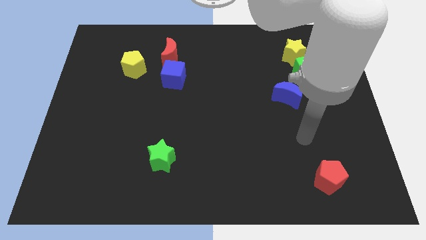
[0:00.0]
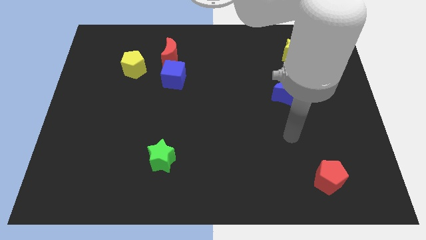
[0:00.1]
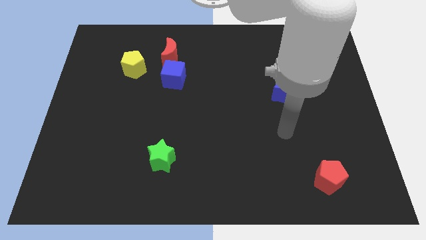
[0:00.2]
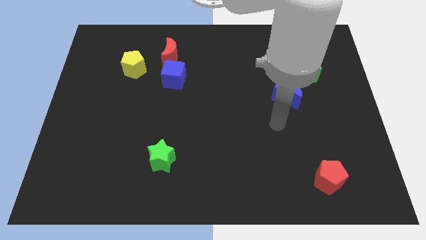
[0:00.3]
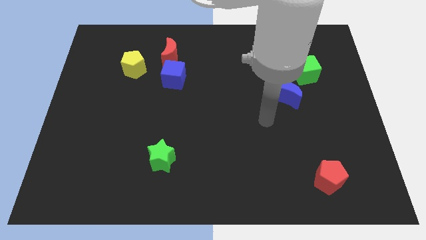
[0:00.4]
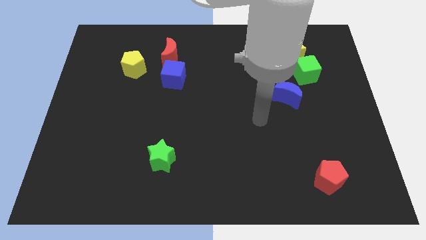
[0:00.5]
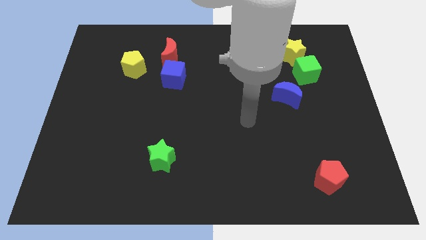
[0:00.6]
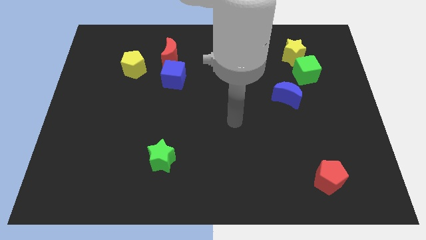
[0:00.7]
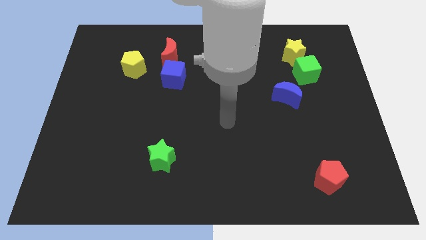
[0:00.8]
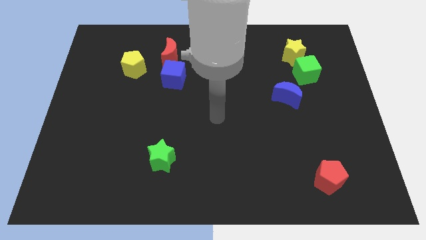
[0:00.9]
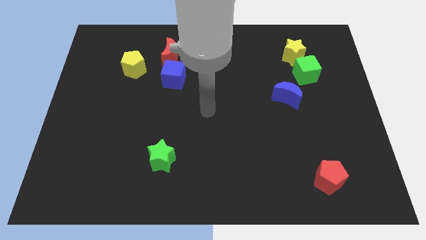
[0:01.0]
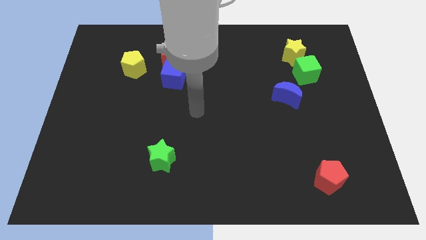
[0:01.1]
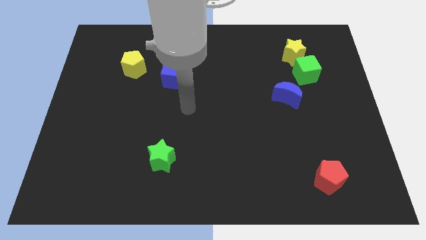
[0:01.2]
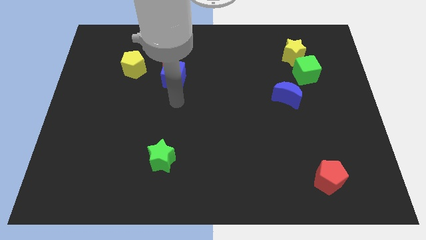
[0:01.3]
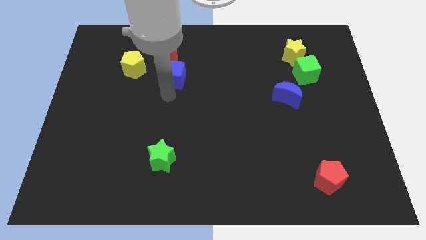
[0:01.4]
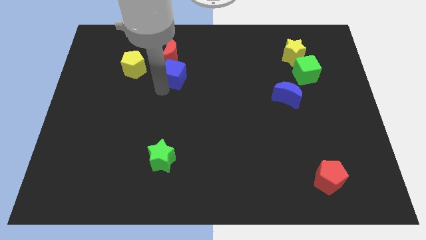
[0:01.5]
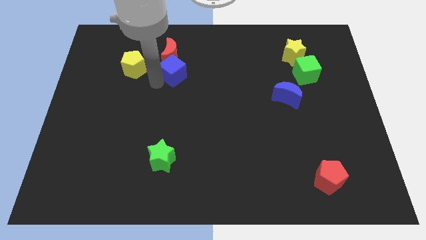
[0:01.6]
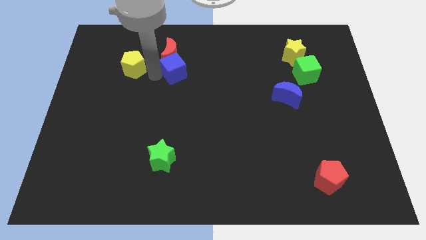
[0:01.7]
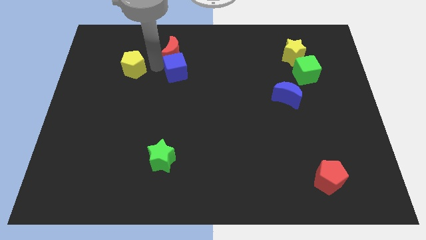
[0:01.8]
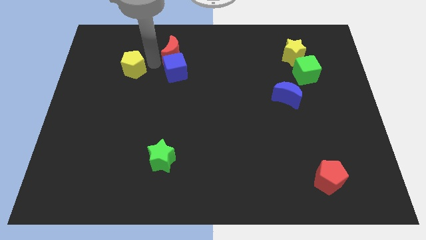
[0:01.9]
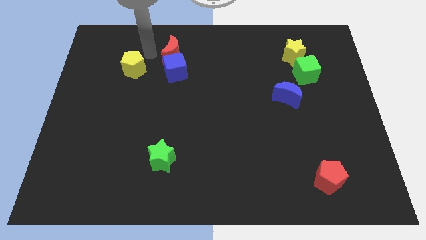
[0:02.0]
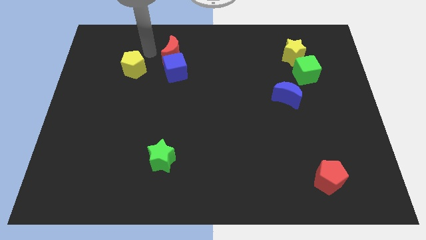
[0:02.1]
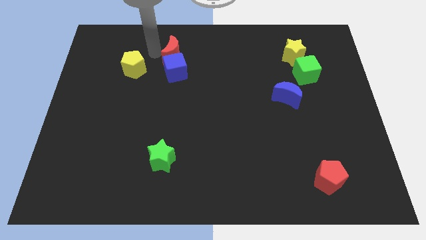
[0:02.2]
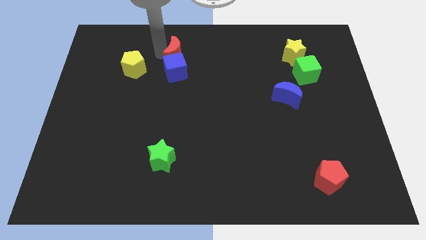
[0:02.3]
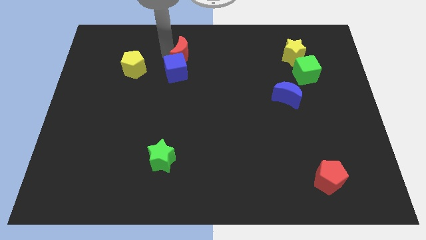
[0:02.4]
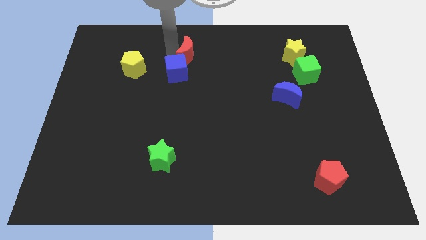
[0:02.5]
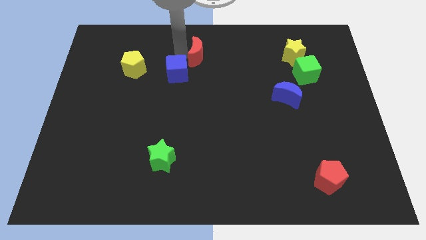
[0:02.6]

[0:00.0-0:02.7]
move the red moon to the right slightly

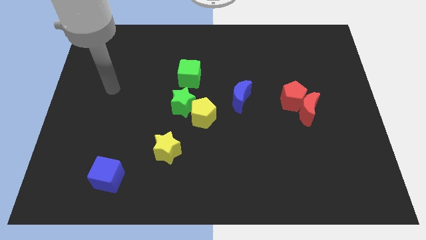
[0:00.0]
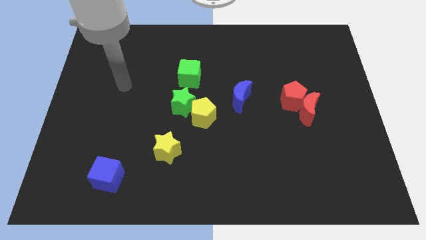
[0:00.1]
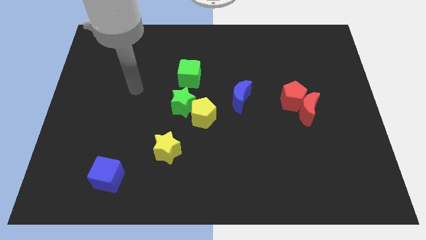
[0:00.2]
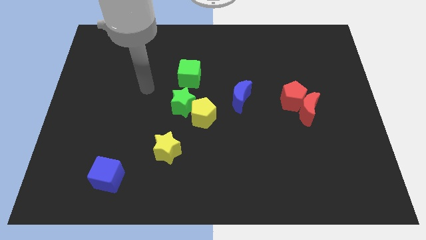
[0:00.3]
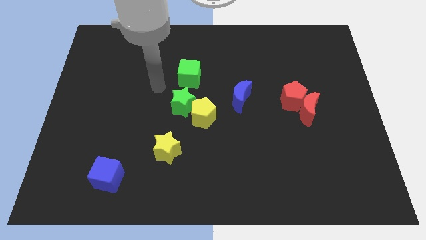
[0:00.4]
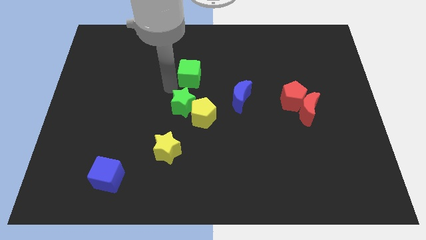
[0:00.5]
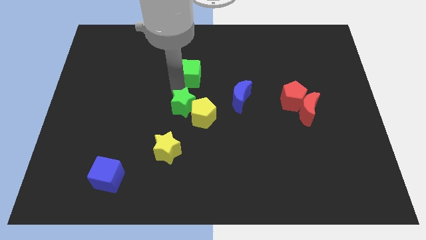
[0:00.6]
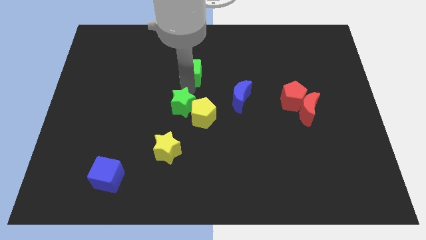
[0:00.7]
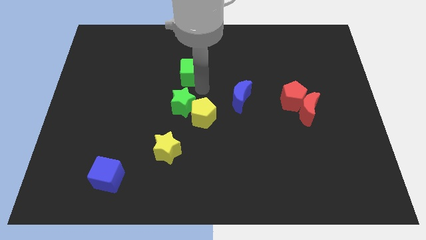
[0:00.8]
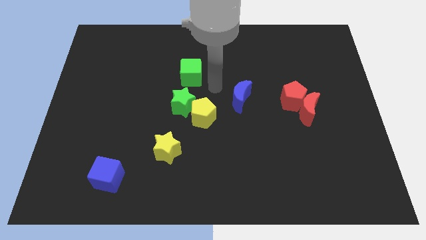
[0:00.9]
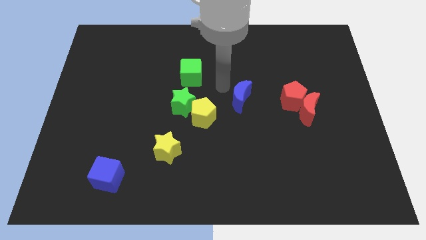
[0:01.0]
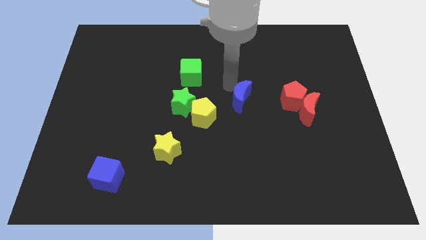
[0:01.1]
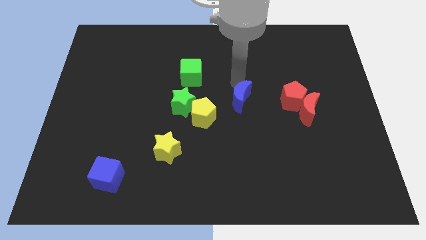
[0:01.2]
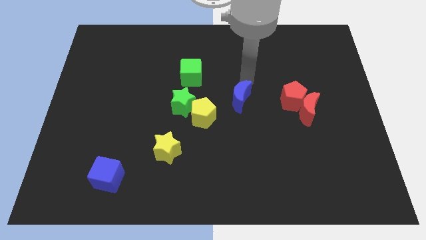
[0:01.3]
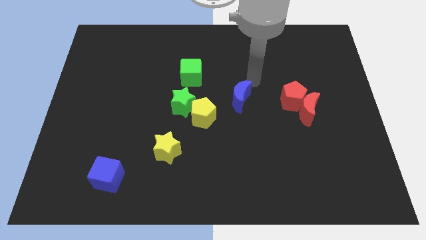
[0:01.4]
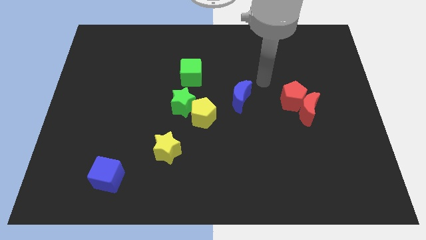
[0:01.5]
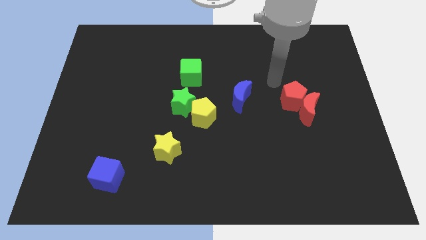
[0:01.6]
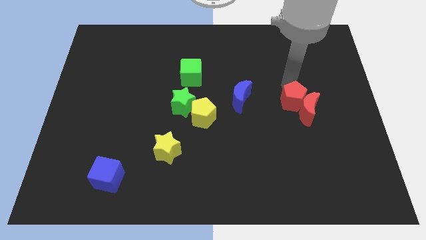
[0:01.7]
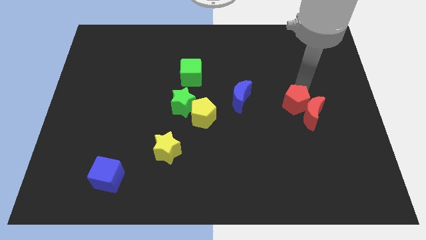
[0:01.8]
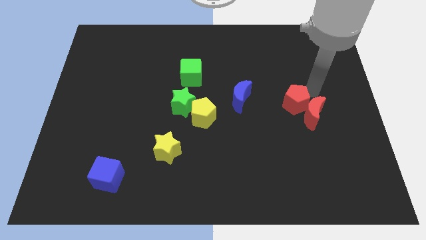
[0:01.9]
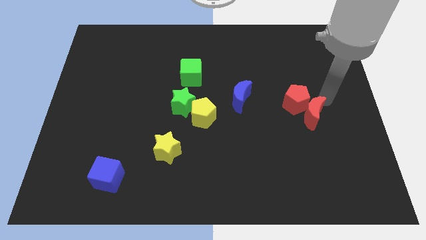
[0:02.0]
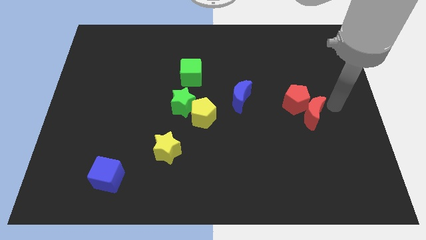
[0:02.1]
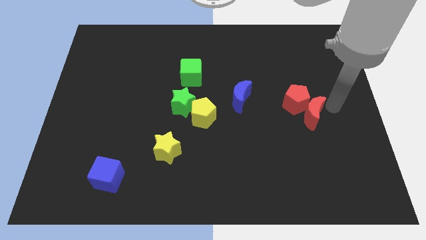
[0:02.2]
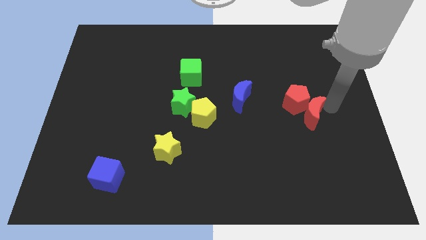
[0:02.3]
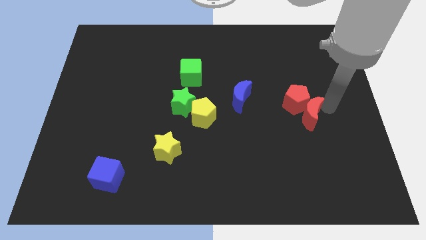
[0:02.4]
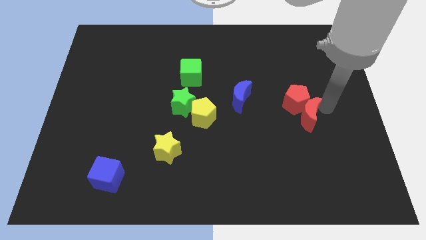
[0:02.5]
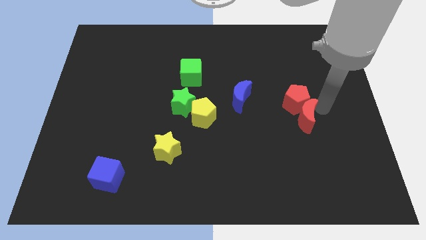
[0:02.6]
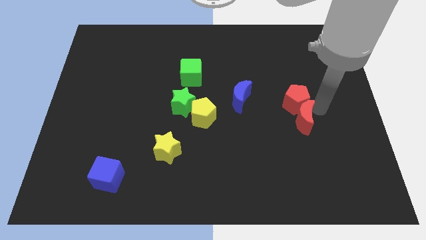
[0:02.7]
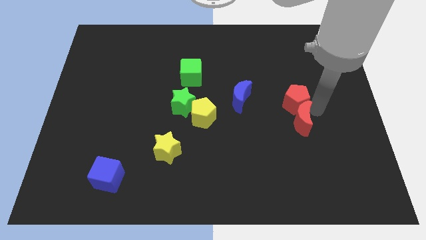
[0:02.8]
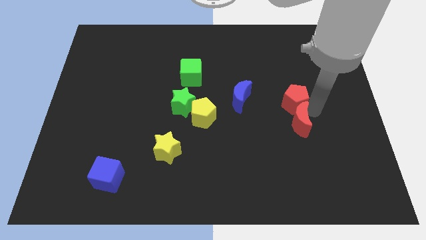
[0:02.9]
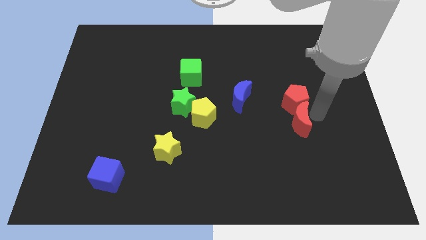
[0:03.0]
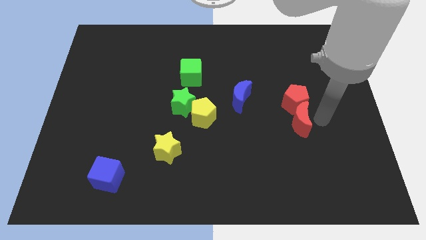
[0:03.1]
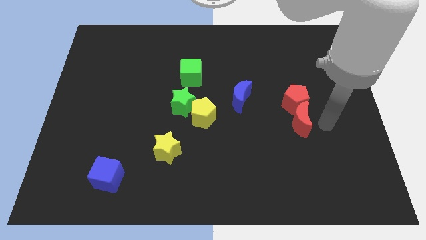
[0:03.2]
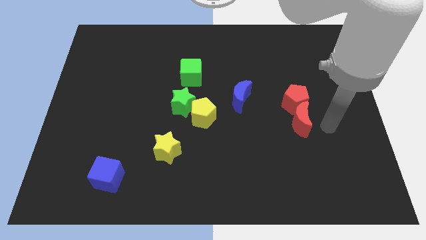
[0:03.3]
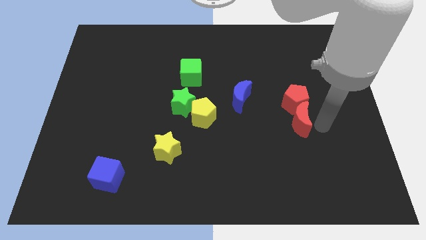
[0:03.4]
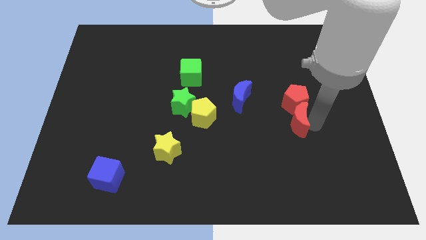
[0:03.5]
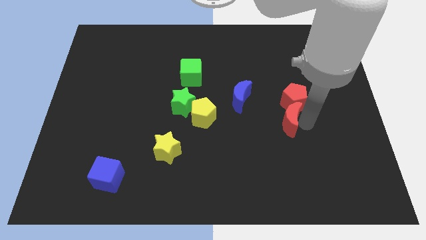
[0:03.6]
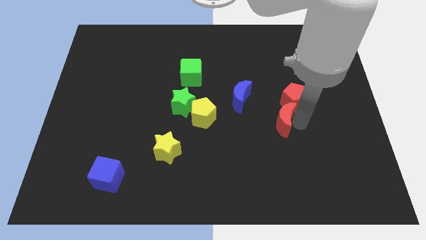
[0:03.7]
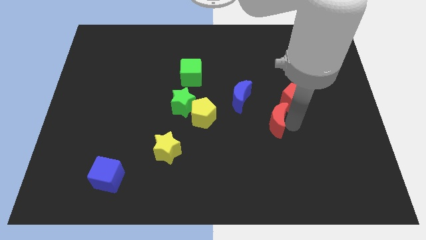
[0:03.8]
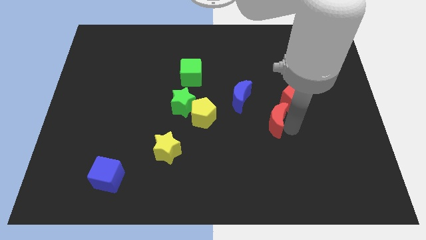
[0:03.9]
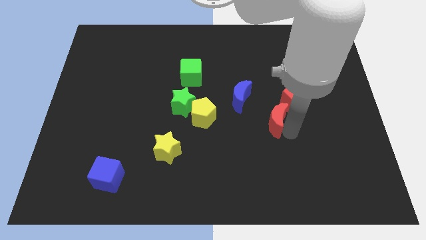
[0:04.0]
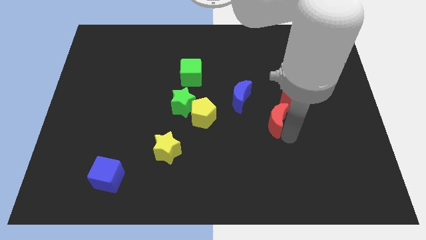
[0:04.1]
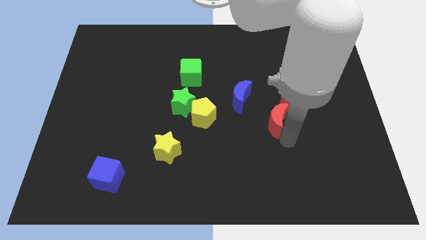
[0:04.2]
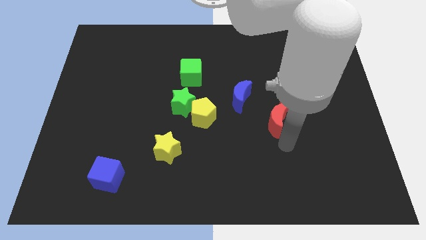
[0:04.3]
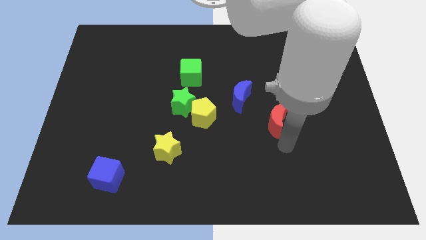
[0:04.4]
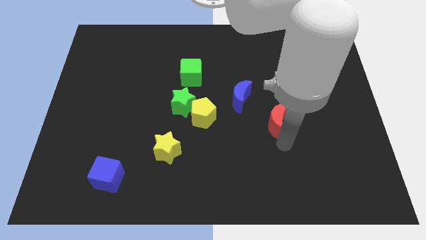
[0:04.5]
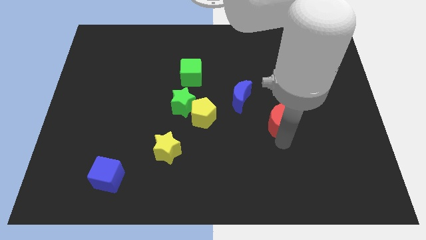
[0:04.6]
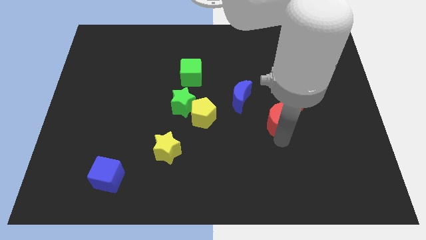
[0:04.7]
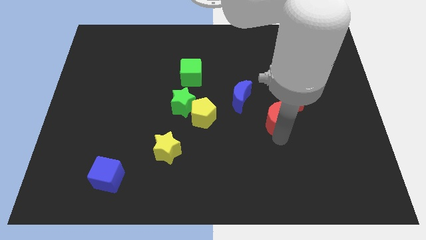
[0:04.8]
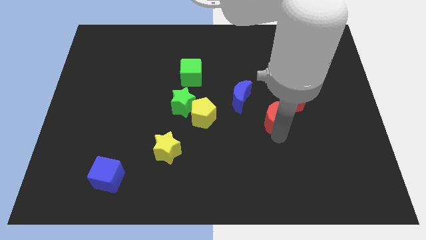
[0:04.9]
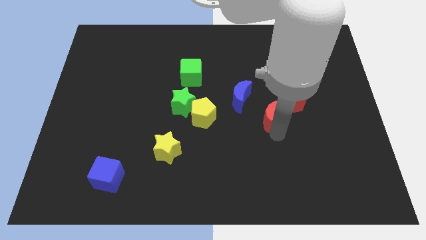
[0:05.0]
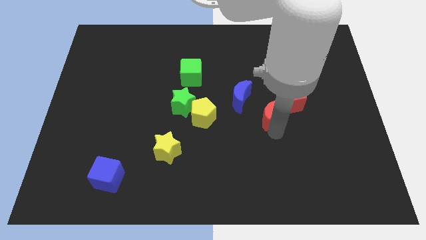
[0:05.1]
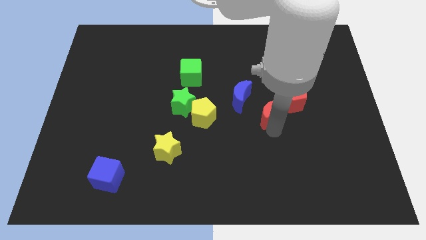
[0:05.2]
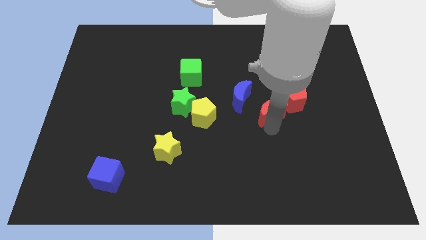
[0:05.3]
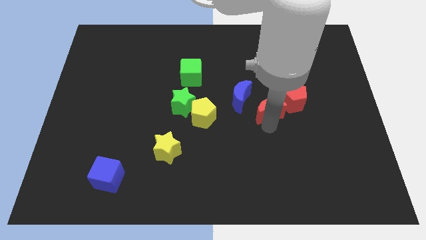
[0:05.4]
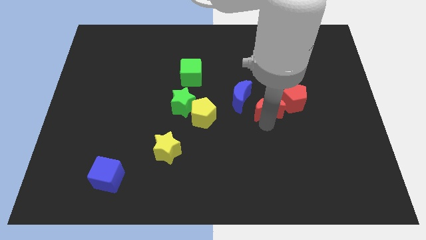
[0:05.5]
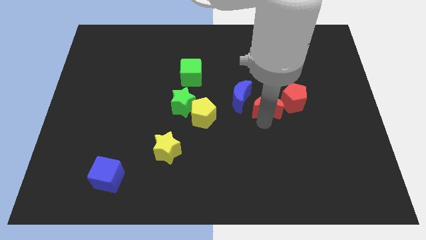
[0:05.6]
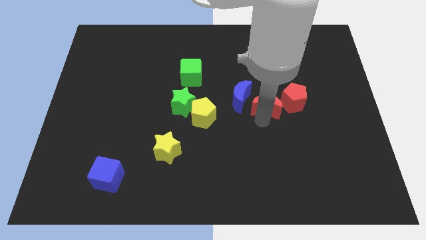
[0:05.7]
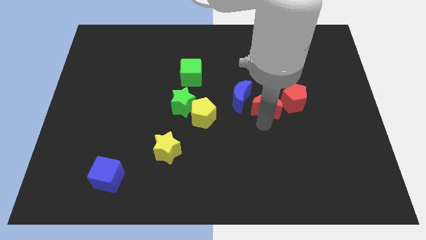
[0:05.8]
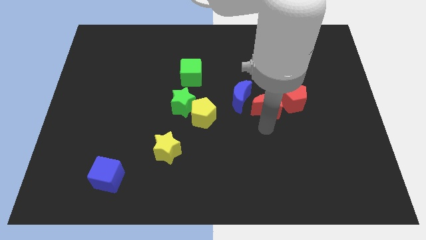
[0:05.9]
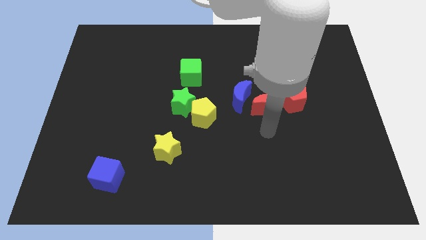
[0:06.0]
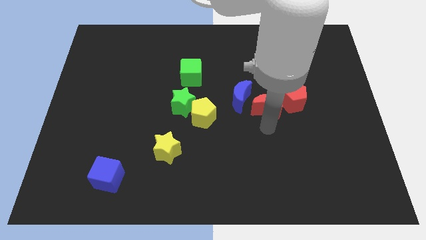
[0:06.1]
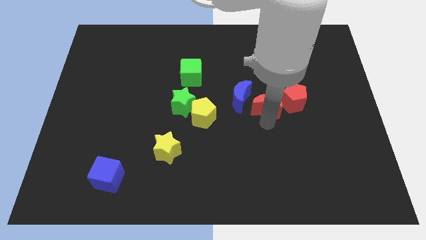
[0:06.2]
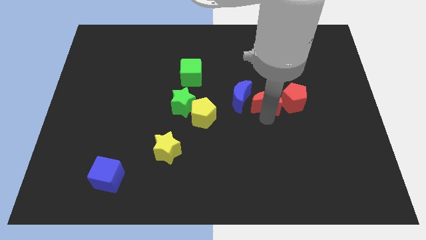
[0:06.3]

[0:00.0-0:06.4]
slide the red moon up and then to the left somewhat
